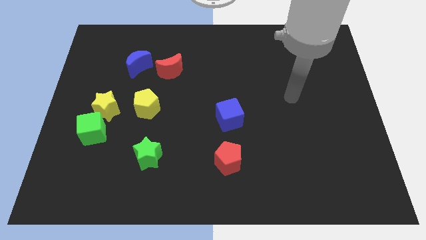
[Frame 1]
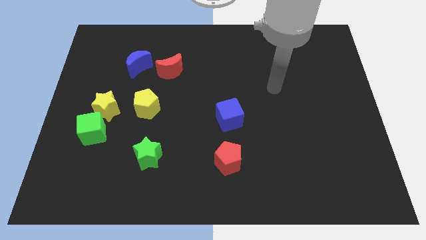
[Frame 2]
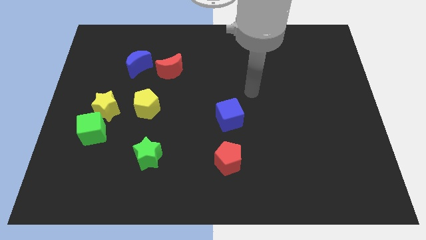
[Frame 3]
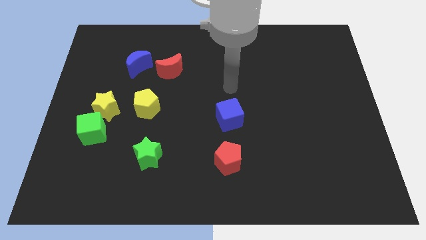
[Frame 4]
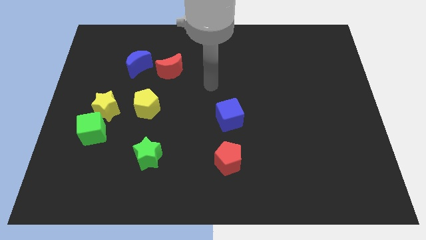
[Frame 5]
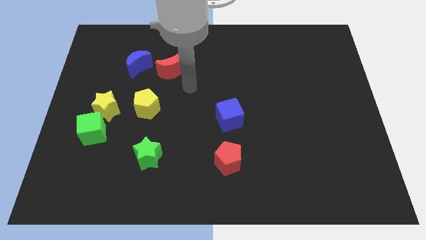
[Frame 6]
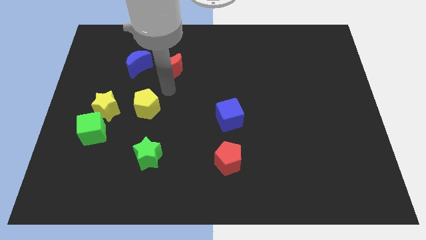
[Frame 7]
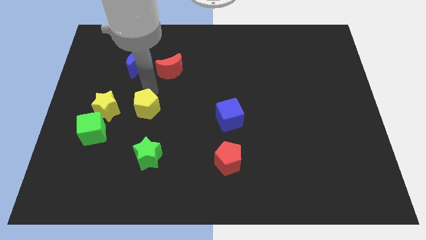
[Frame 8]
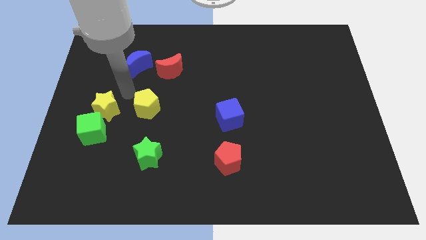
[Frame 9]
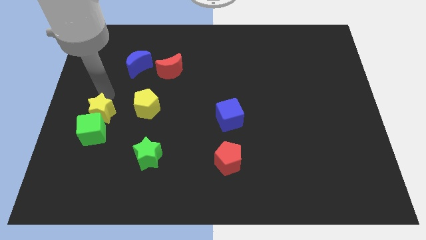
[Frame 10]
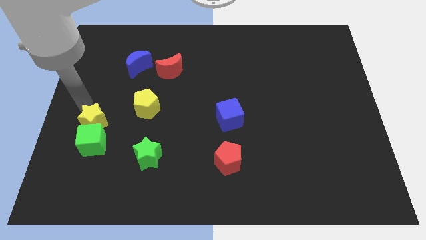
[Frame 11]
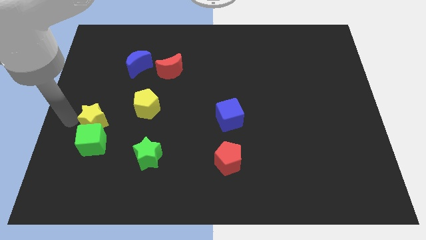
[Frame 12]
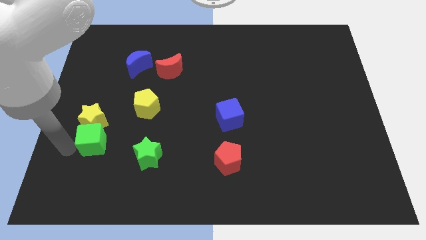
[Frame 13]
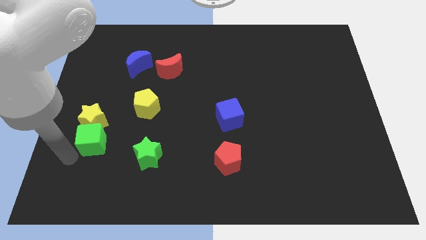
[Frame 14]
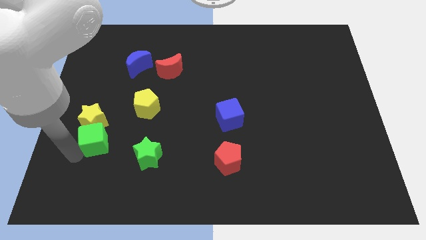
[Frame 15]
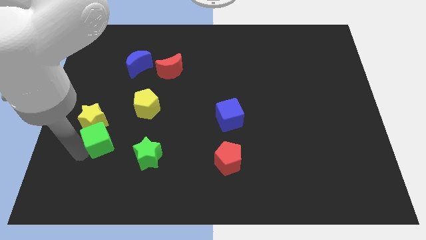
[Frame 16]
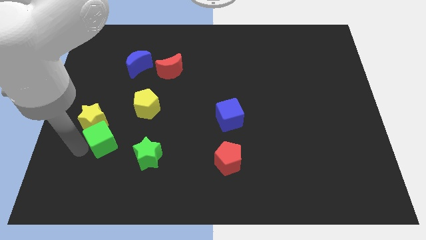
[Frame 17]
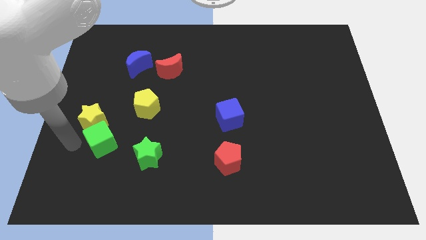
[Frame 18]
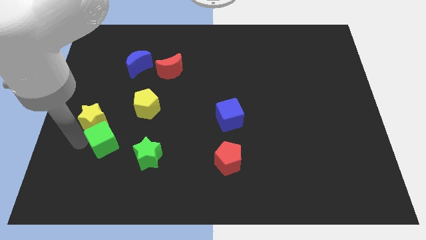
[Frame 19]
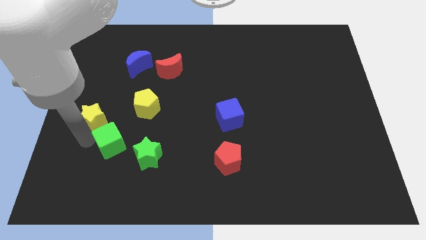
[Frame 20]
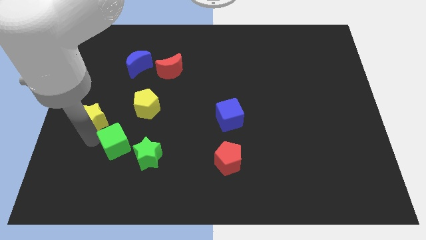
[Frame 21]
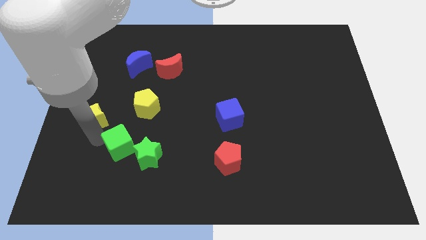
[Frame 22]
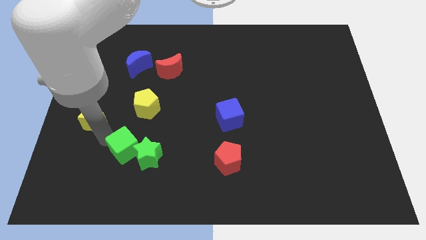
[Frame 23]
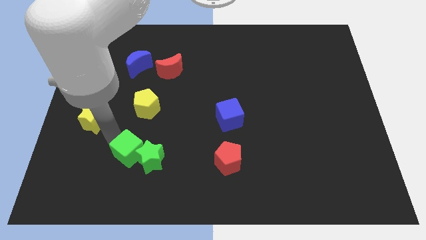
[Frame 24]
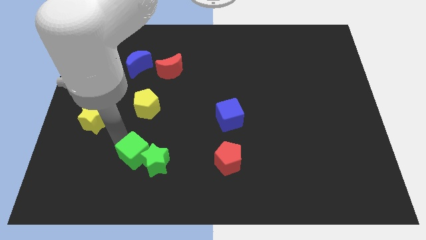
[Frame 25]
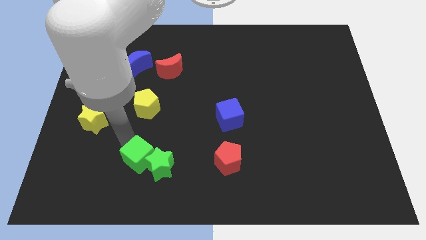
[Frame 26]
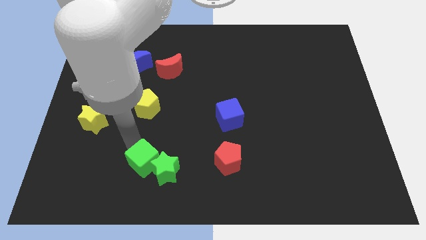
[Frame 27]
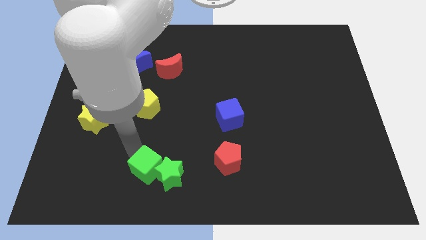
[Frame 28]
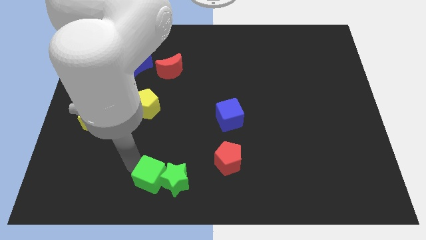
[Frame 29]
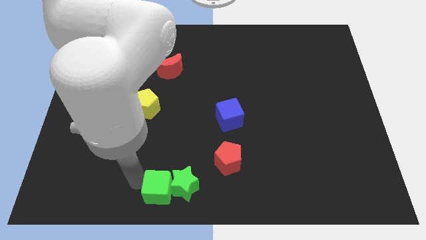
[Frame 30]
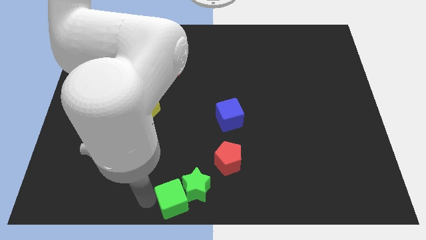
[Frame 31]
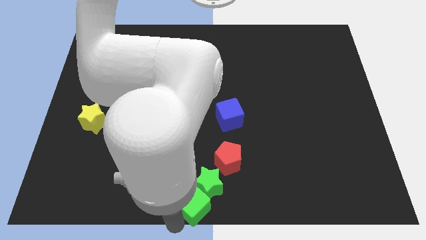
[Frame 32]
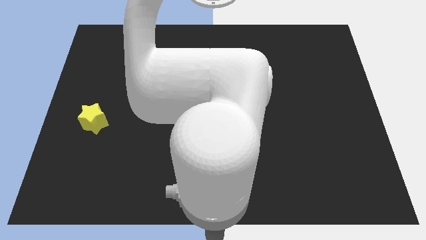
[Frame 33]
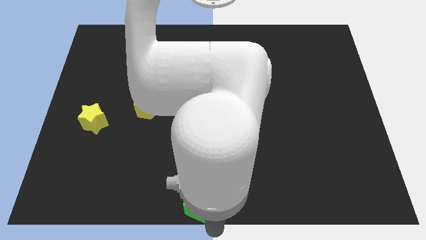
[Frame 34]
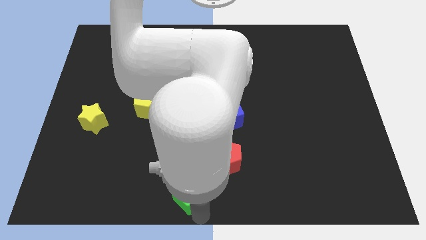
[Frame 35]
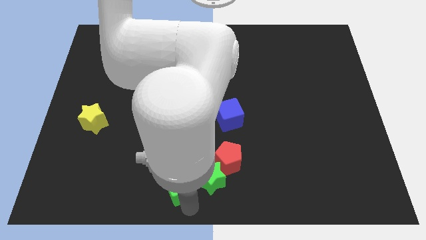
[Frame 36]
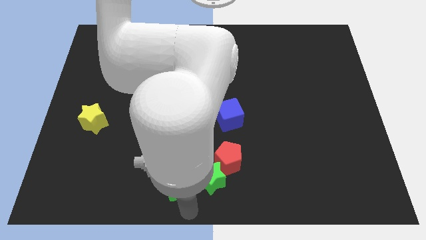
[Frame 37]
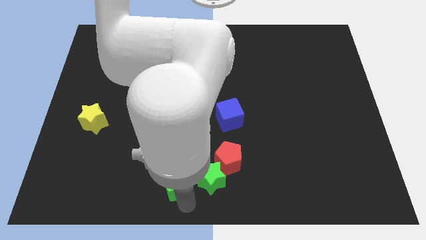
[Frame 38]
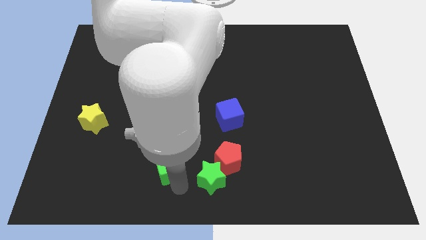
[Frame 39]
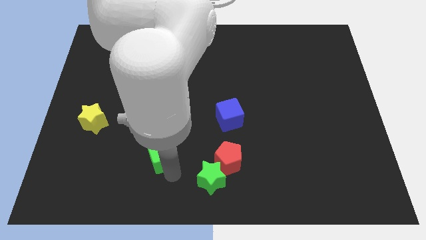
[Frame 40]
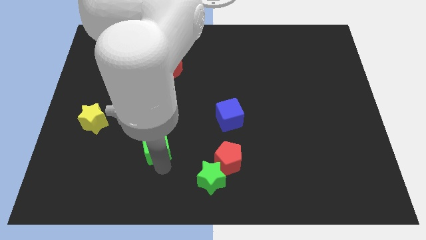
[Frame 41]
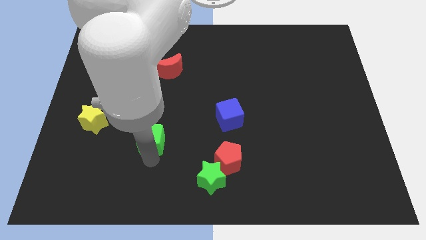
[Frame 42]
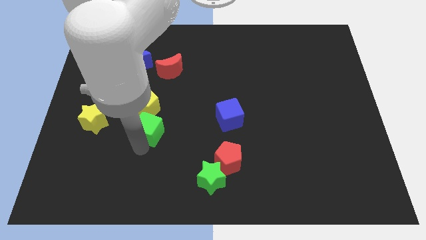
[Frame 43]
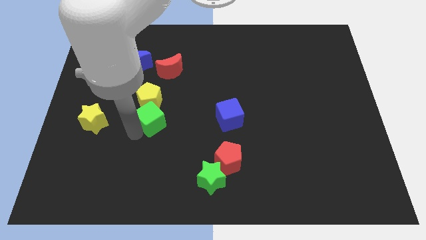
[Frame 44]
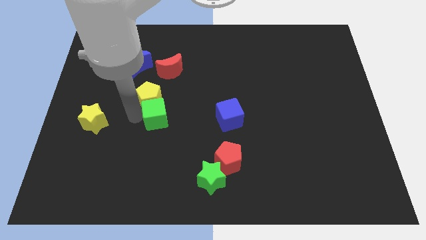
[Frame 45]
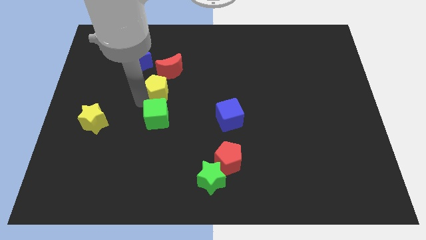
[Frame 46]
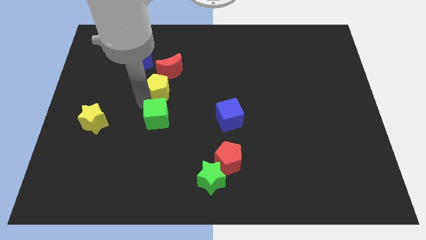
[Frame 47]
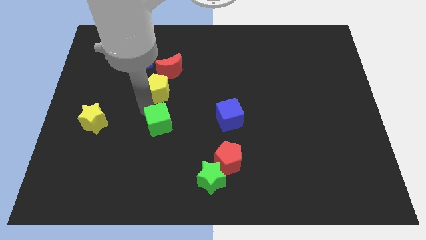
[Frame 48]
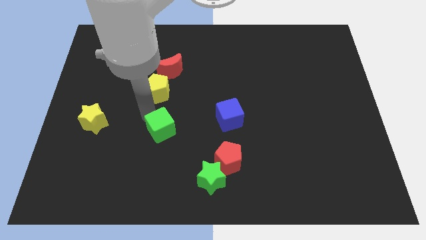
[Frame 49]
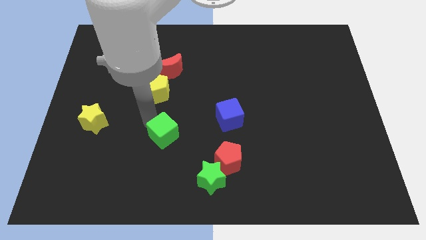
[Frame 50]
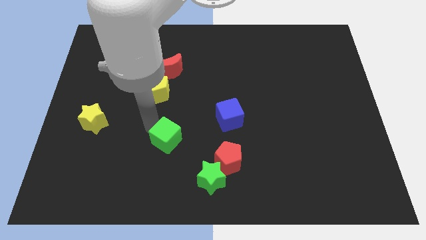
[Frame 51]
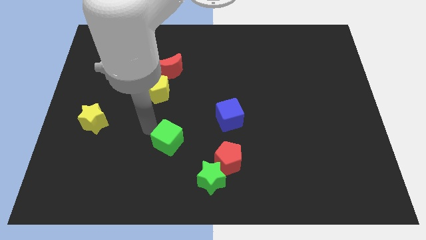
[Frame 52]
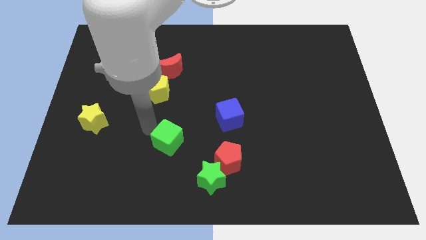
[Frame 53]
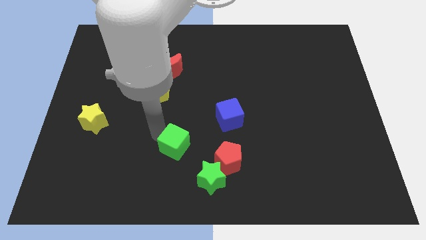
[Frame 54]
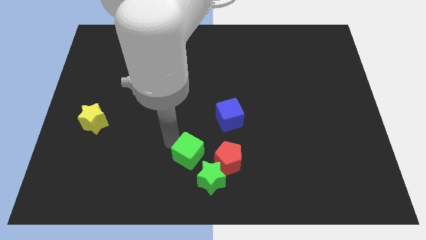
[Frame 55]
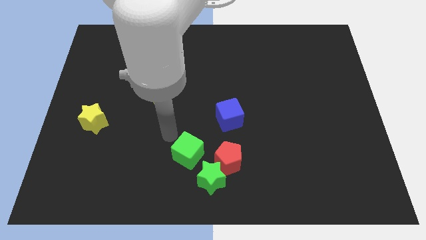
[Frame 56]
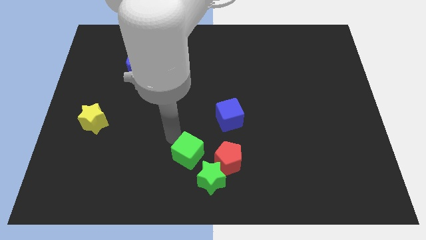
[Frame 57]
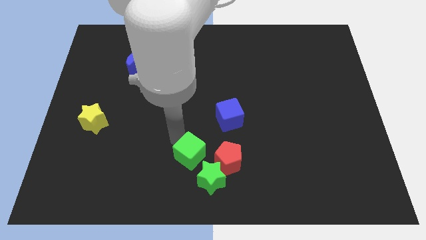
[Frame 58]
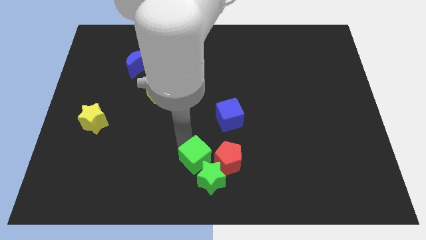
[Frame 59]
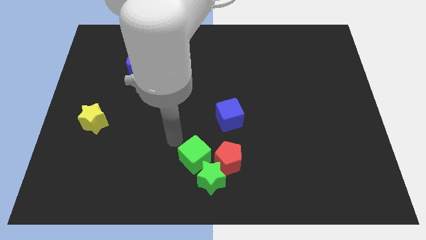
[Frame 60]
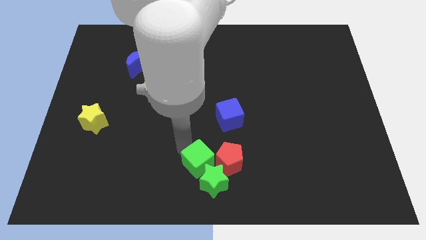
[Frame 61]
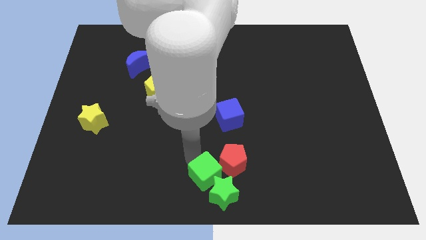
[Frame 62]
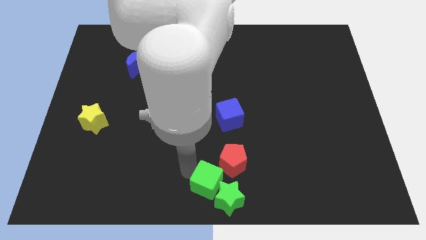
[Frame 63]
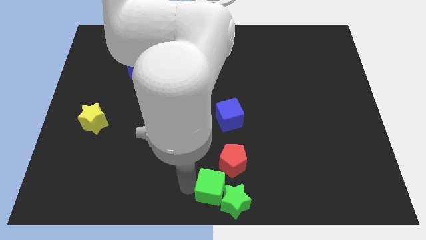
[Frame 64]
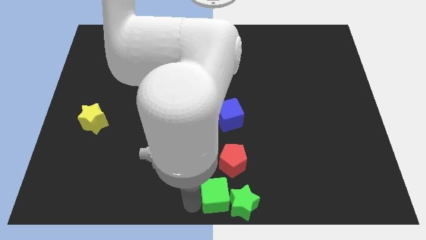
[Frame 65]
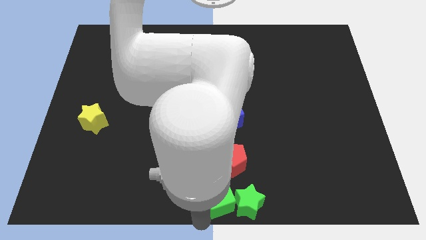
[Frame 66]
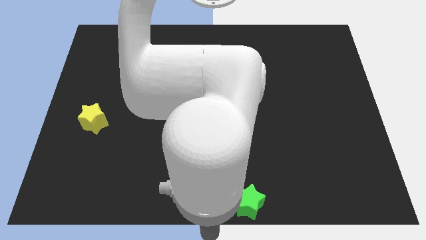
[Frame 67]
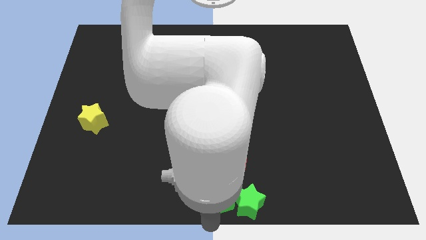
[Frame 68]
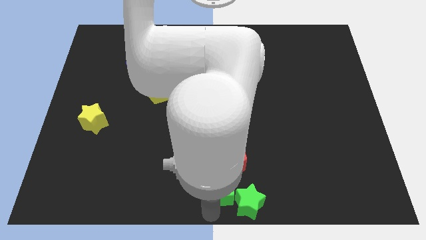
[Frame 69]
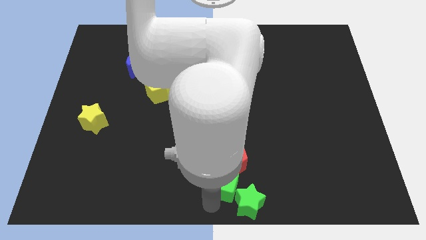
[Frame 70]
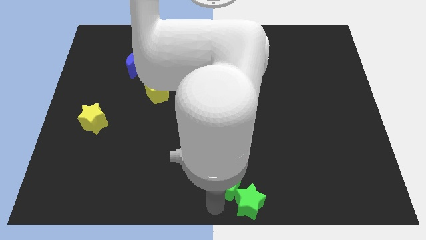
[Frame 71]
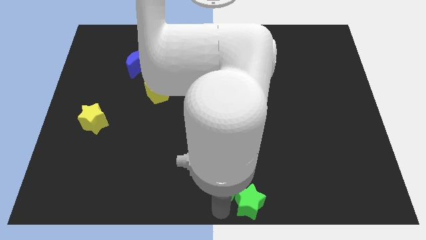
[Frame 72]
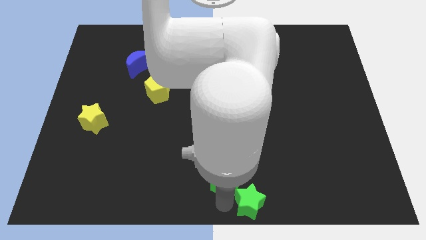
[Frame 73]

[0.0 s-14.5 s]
push the green cube to the bottom of the blue cube

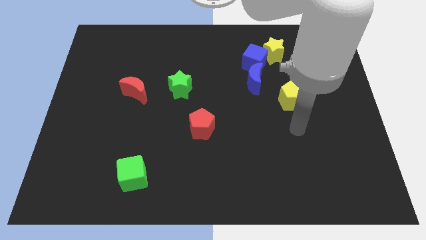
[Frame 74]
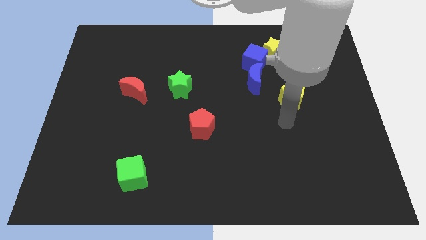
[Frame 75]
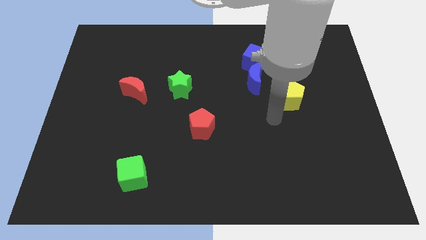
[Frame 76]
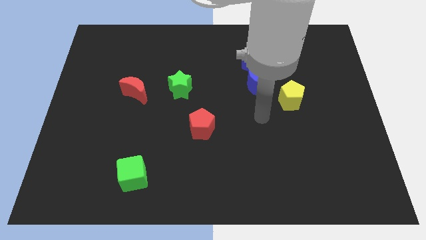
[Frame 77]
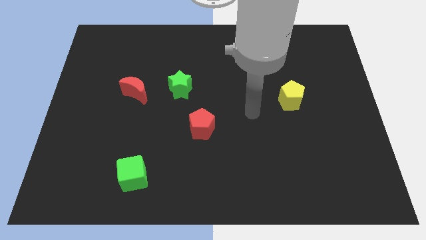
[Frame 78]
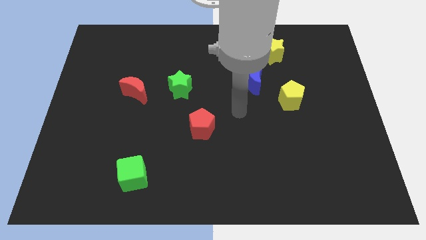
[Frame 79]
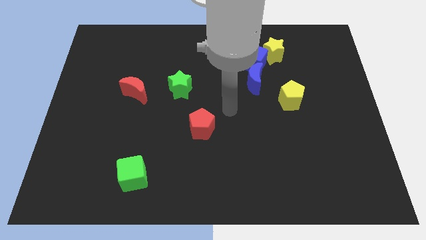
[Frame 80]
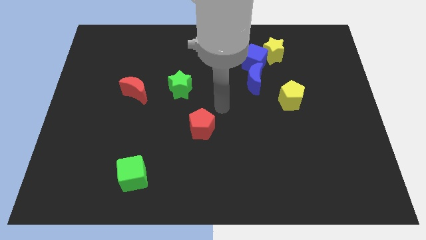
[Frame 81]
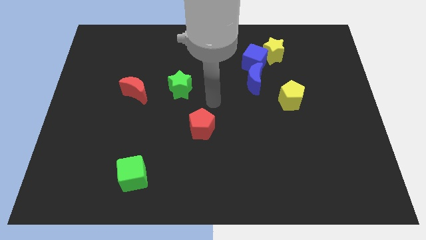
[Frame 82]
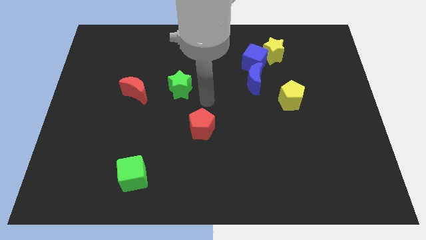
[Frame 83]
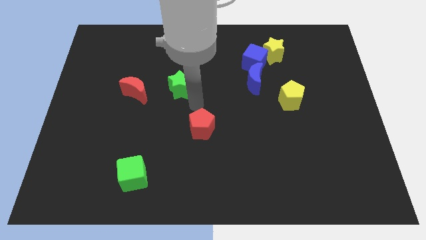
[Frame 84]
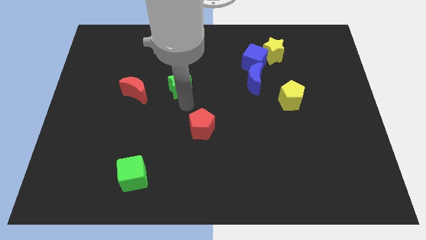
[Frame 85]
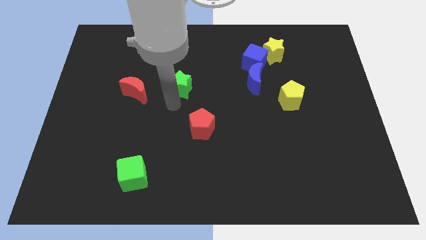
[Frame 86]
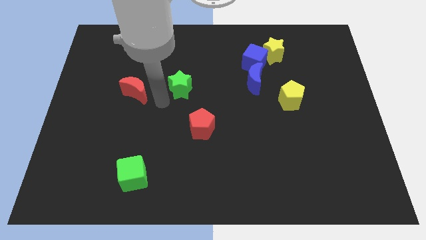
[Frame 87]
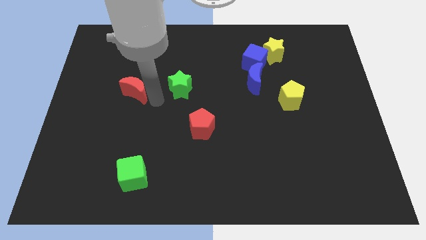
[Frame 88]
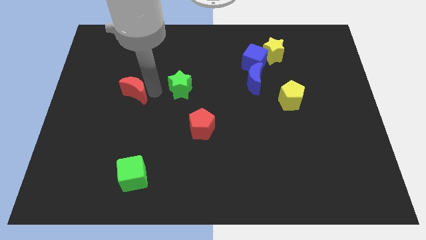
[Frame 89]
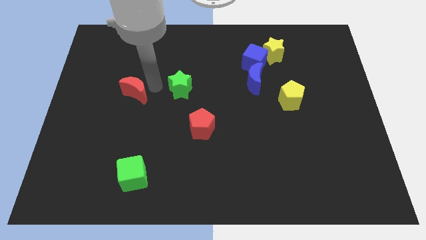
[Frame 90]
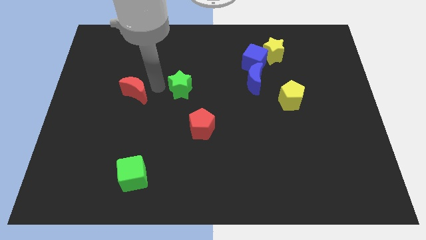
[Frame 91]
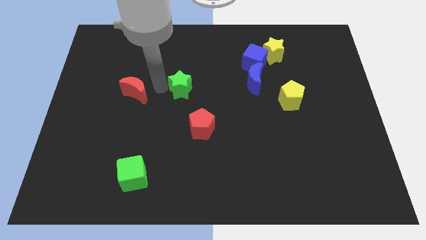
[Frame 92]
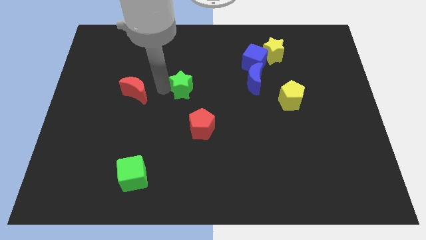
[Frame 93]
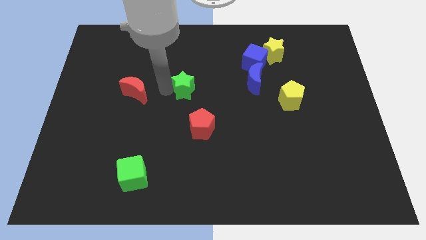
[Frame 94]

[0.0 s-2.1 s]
slide the green star to the top side of the red pentagon
